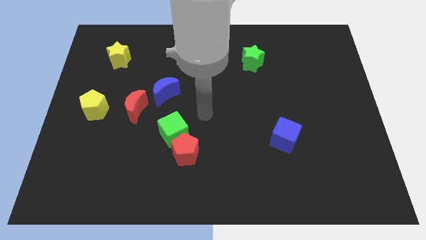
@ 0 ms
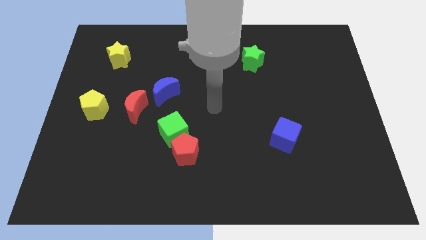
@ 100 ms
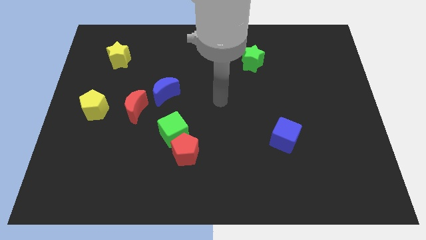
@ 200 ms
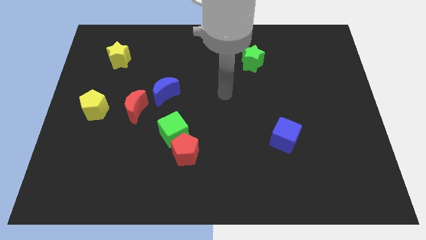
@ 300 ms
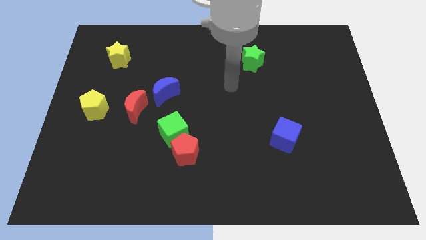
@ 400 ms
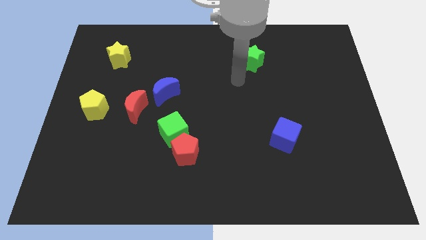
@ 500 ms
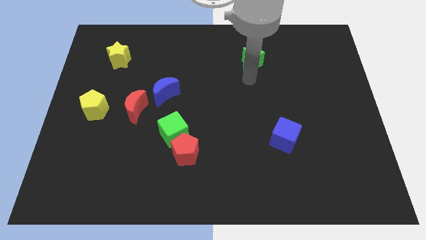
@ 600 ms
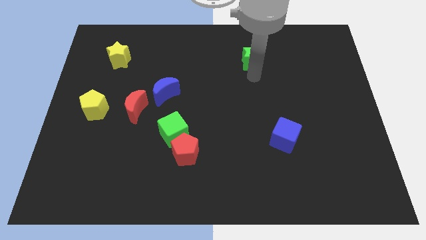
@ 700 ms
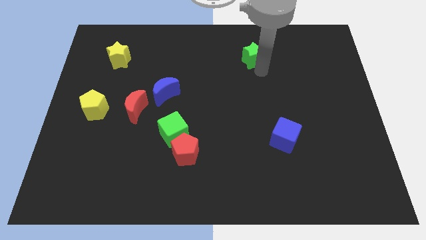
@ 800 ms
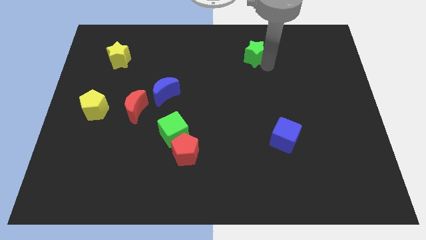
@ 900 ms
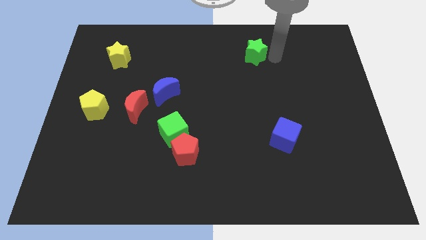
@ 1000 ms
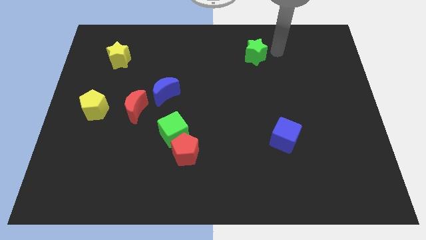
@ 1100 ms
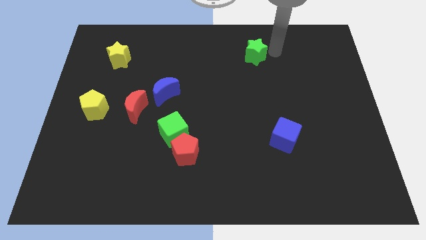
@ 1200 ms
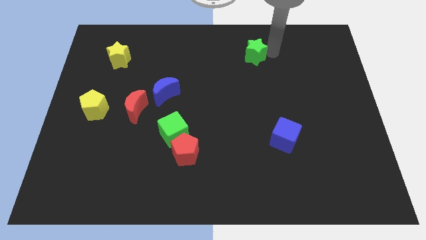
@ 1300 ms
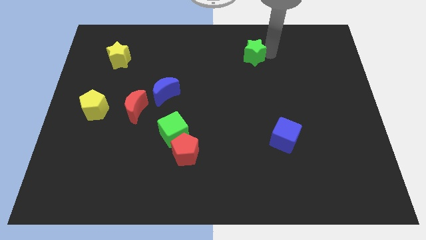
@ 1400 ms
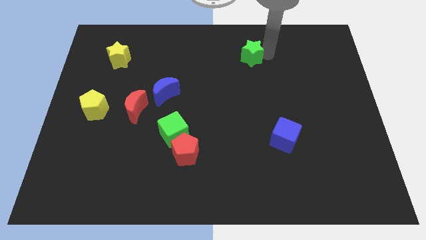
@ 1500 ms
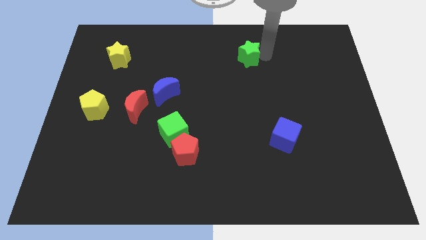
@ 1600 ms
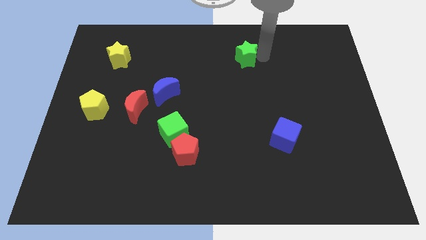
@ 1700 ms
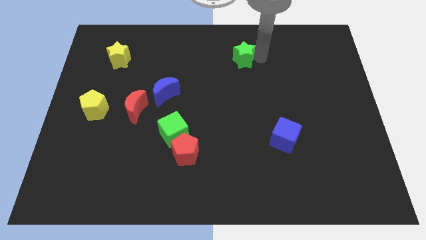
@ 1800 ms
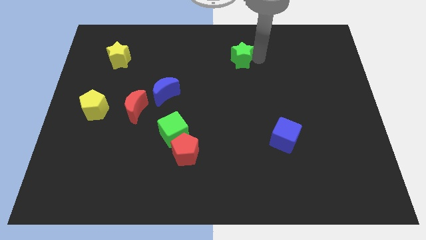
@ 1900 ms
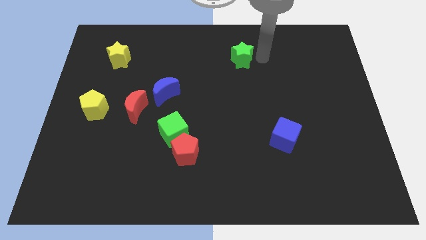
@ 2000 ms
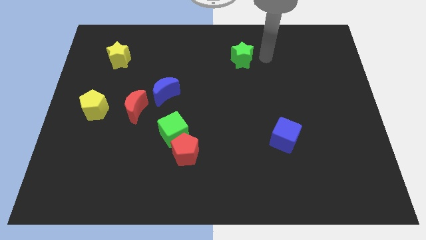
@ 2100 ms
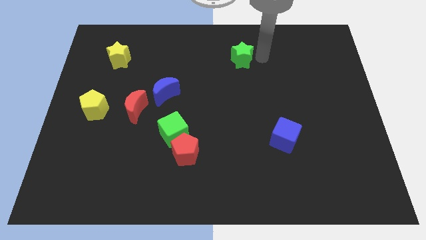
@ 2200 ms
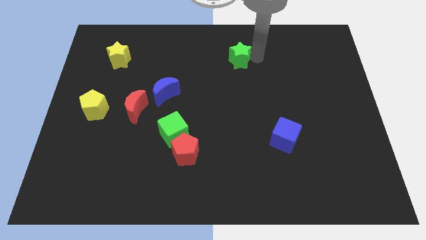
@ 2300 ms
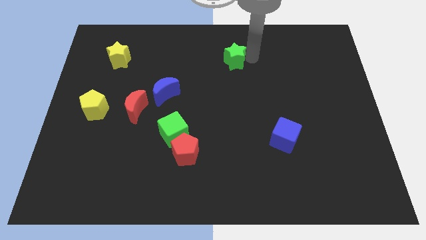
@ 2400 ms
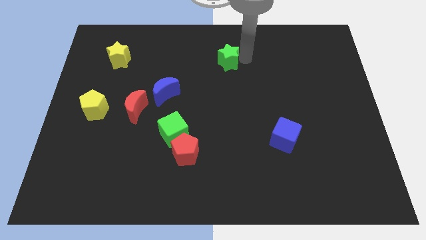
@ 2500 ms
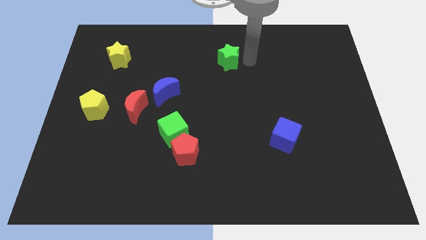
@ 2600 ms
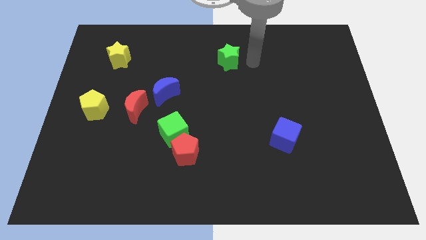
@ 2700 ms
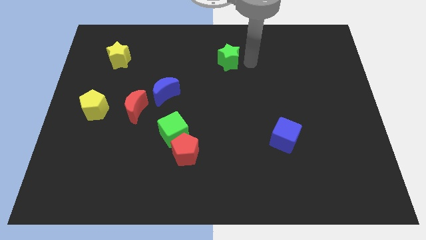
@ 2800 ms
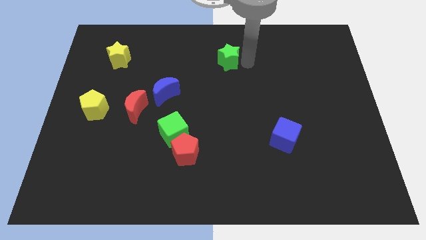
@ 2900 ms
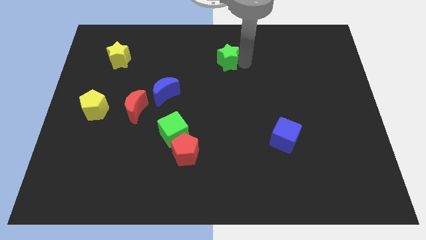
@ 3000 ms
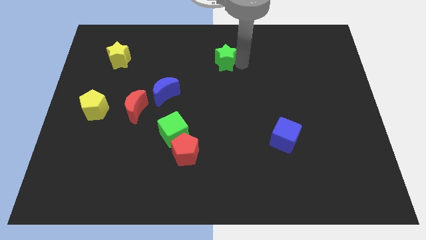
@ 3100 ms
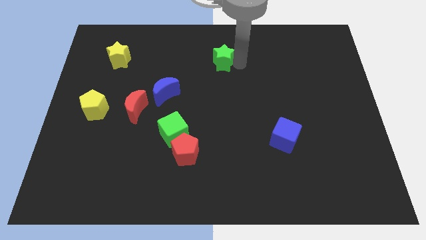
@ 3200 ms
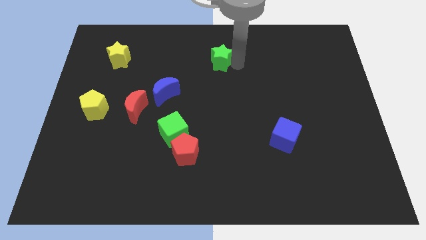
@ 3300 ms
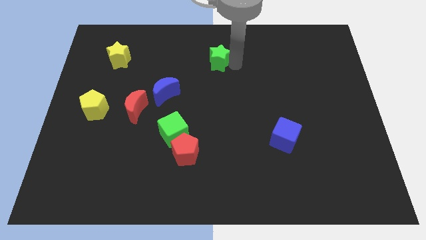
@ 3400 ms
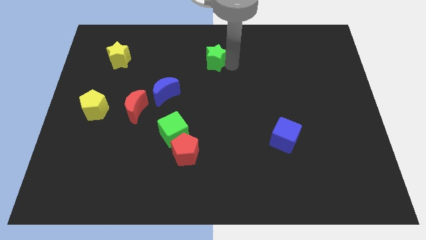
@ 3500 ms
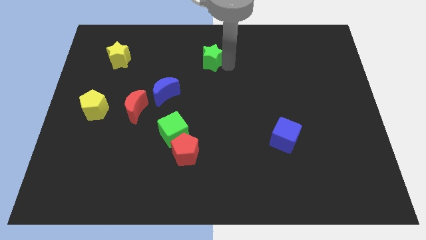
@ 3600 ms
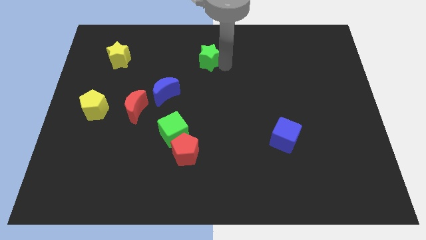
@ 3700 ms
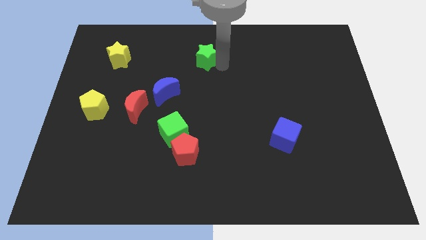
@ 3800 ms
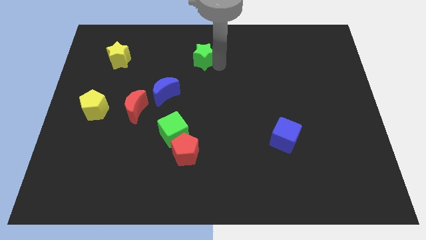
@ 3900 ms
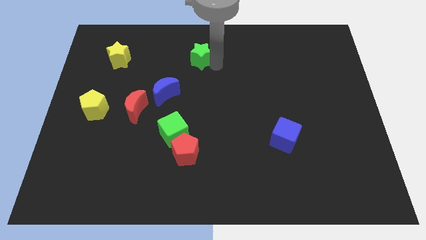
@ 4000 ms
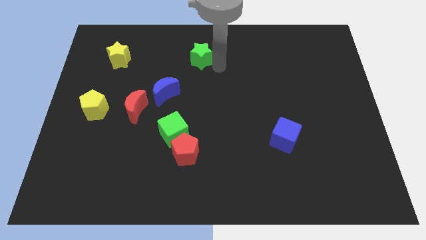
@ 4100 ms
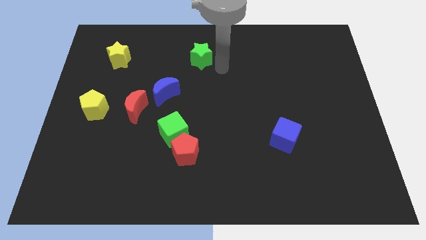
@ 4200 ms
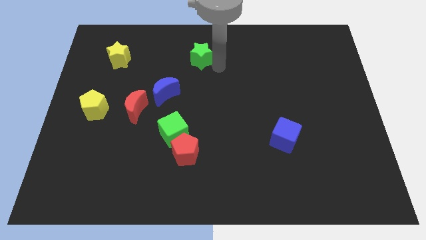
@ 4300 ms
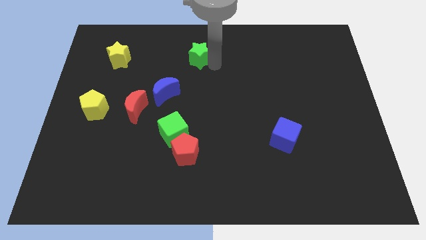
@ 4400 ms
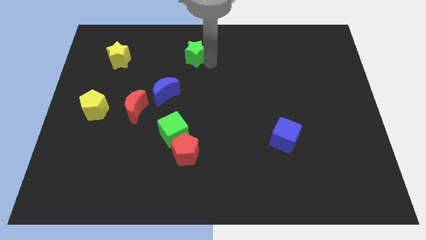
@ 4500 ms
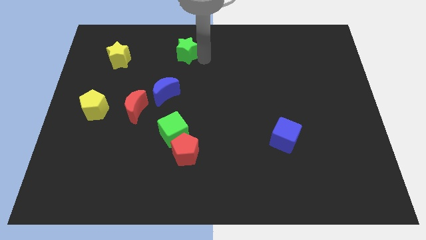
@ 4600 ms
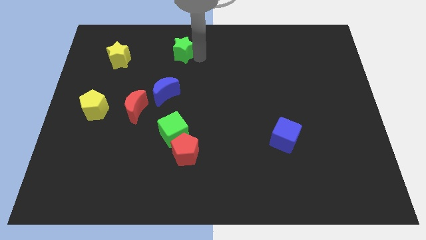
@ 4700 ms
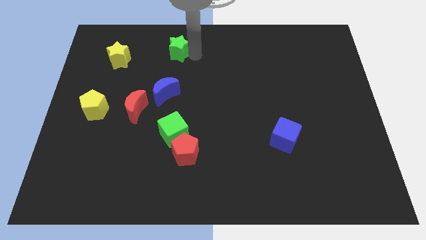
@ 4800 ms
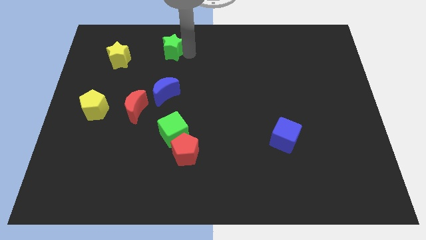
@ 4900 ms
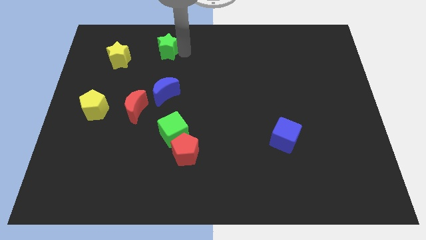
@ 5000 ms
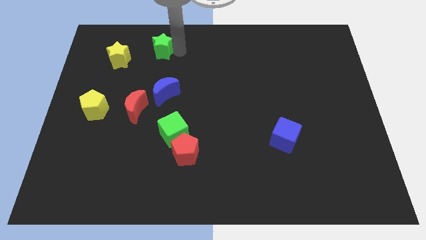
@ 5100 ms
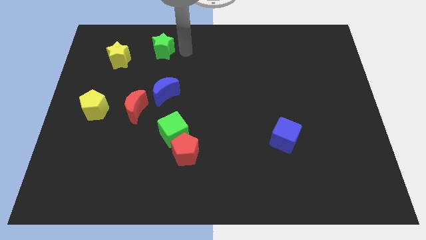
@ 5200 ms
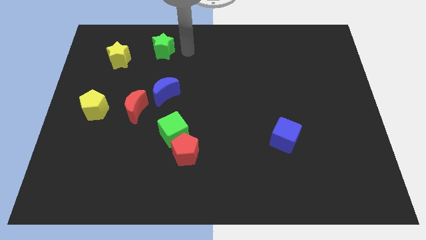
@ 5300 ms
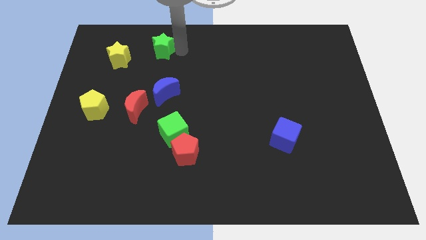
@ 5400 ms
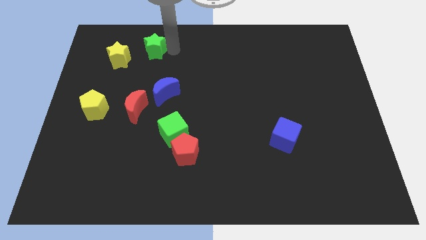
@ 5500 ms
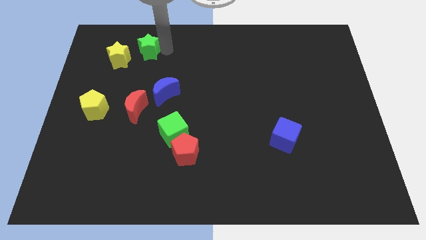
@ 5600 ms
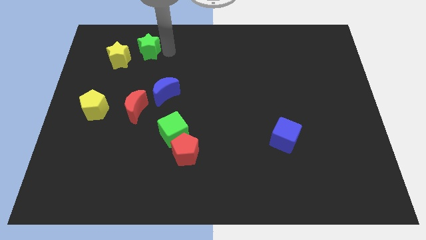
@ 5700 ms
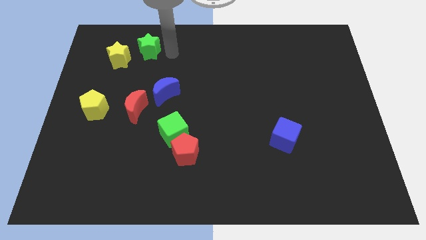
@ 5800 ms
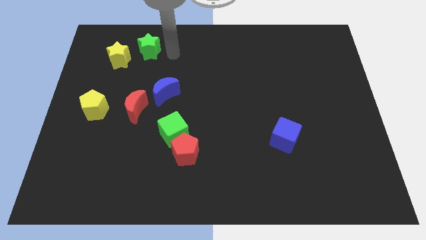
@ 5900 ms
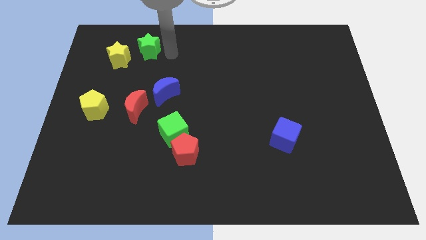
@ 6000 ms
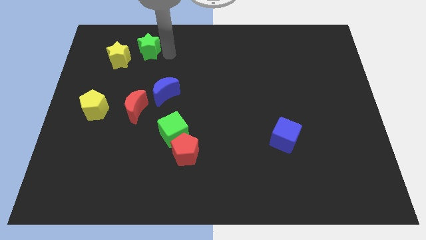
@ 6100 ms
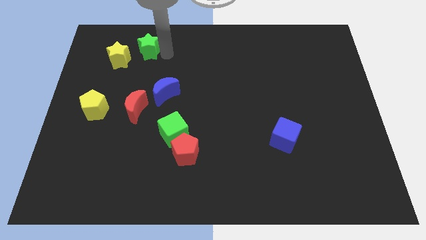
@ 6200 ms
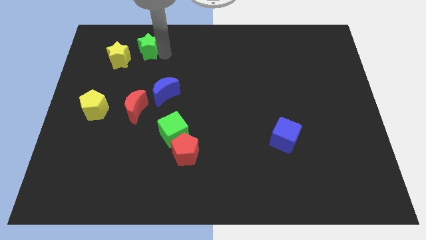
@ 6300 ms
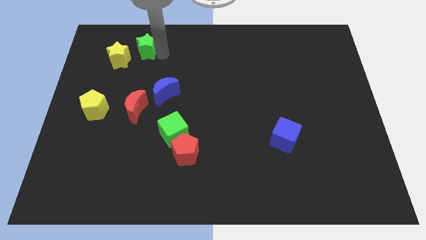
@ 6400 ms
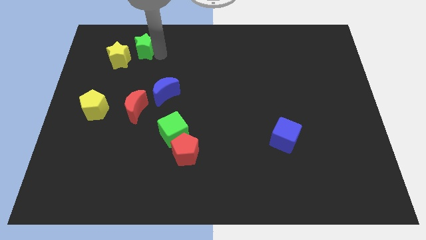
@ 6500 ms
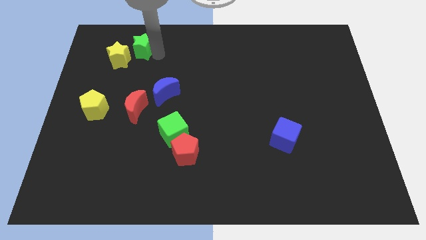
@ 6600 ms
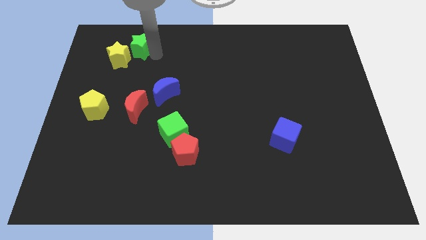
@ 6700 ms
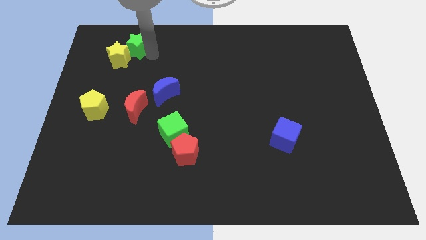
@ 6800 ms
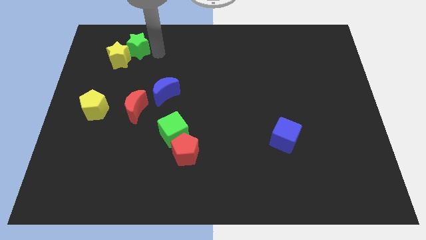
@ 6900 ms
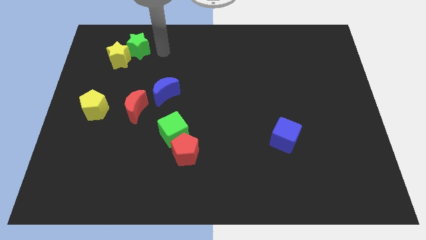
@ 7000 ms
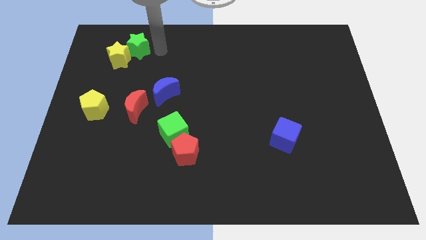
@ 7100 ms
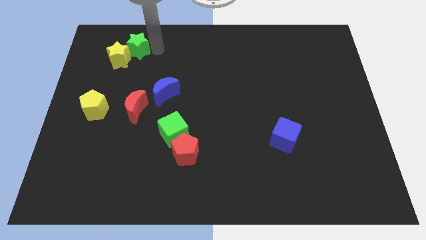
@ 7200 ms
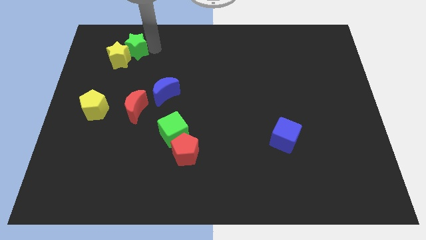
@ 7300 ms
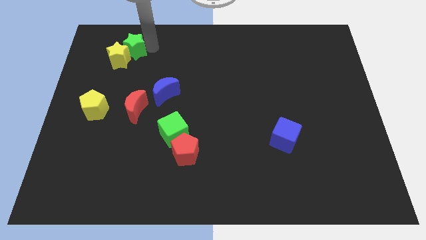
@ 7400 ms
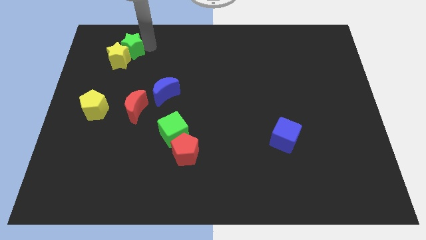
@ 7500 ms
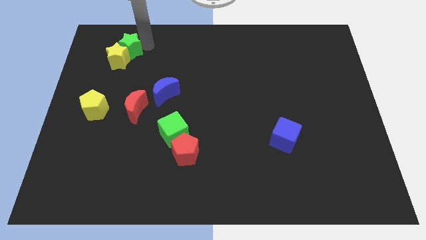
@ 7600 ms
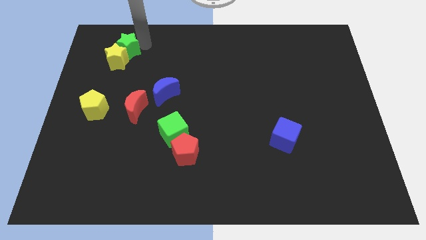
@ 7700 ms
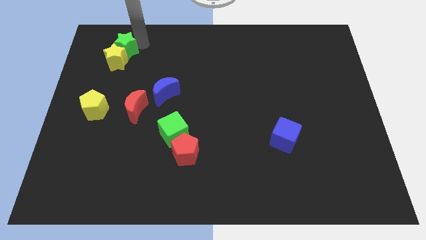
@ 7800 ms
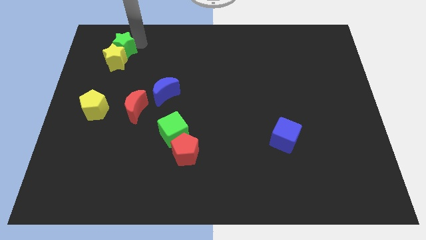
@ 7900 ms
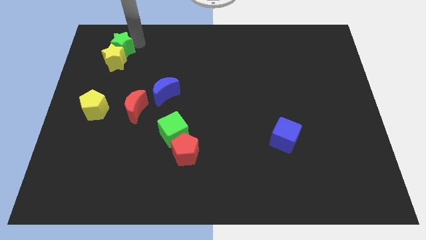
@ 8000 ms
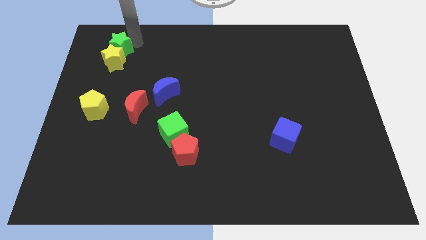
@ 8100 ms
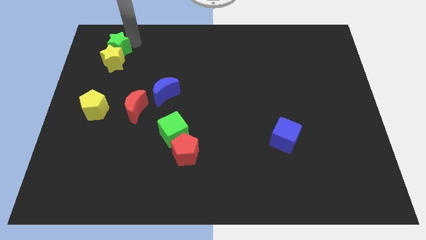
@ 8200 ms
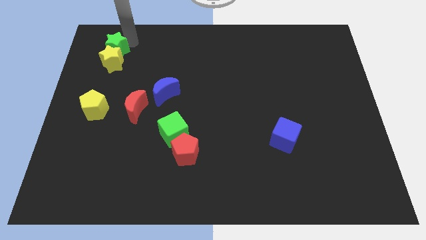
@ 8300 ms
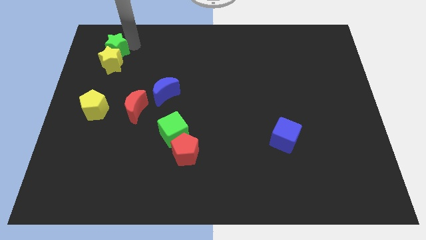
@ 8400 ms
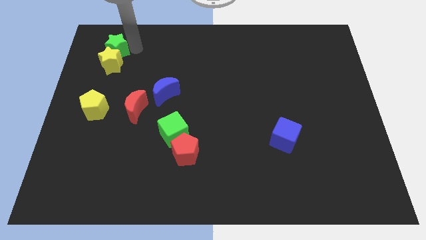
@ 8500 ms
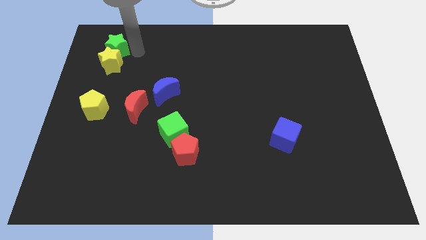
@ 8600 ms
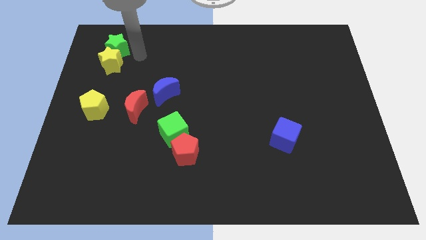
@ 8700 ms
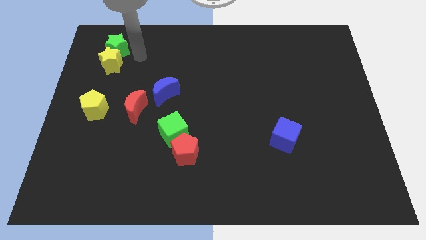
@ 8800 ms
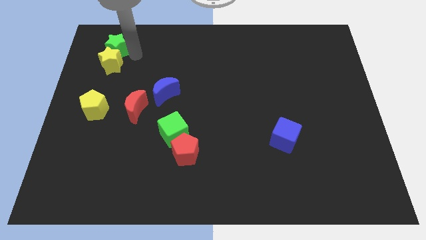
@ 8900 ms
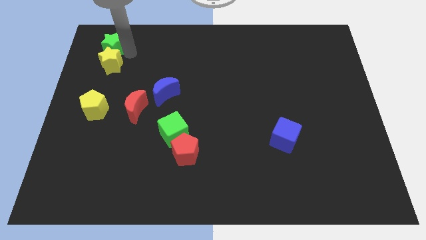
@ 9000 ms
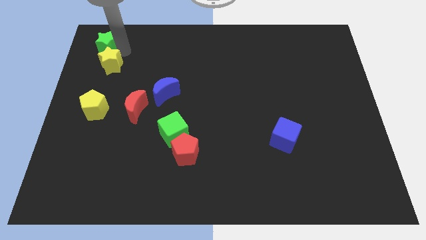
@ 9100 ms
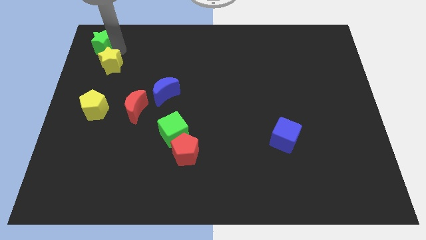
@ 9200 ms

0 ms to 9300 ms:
push the green star to the top left of the board
